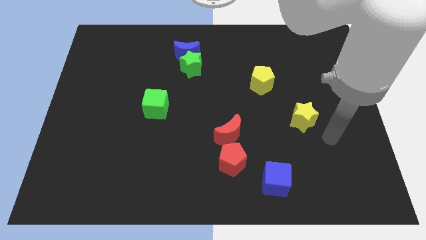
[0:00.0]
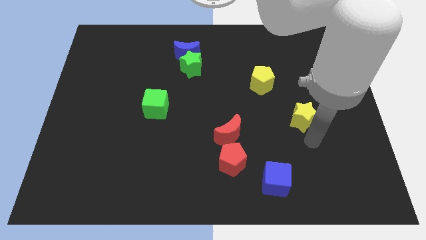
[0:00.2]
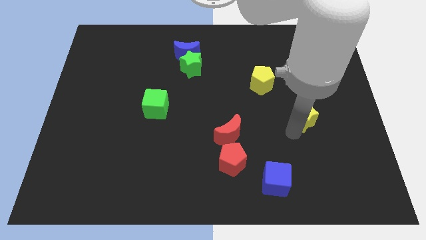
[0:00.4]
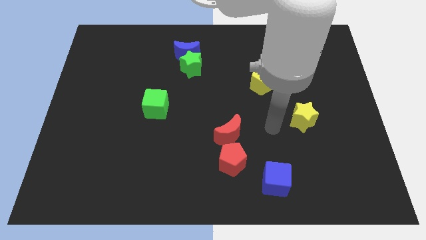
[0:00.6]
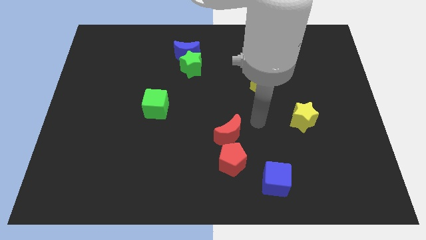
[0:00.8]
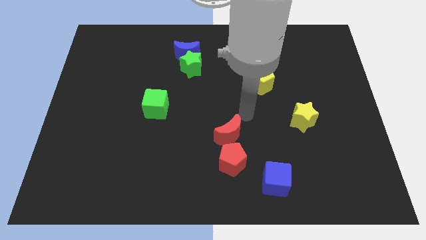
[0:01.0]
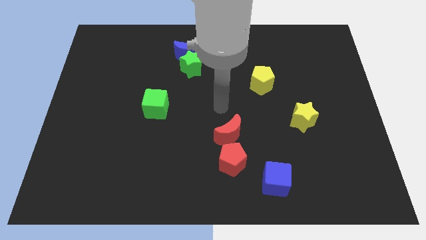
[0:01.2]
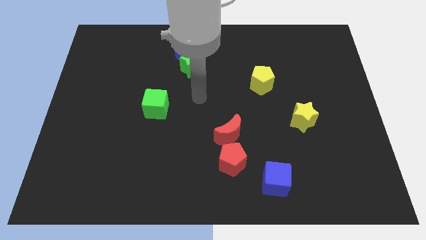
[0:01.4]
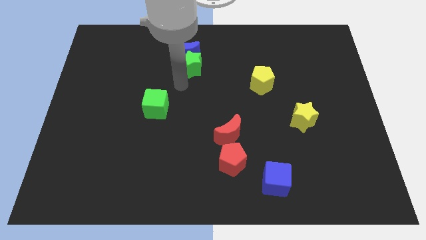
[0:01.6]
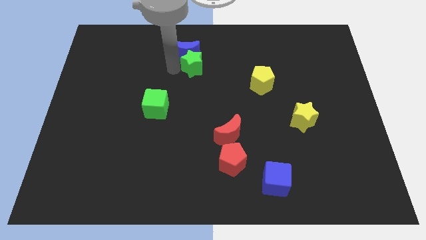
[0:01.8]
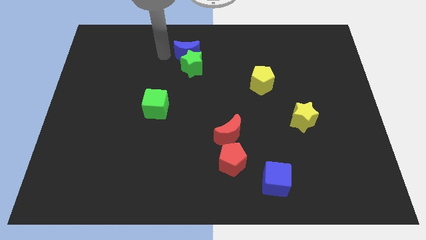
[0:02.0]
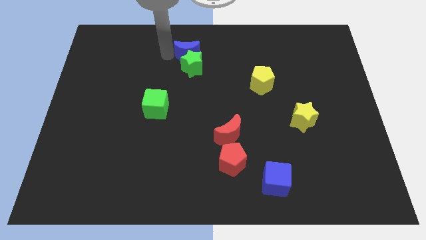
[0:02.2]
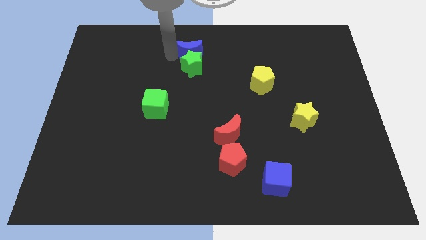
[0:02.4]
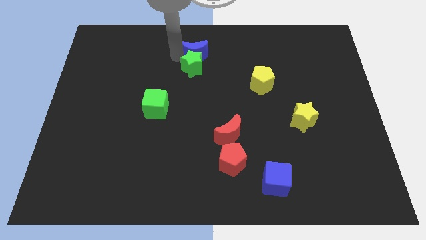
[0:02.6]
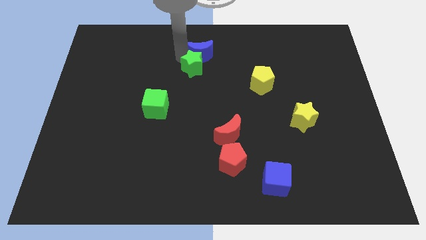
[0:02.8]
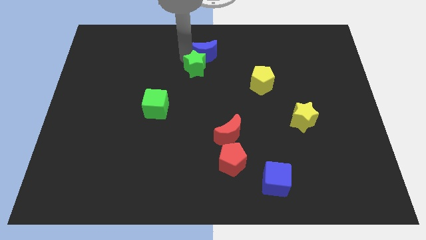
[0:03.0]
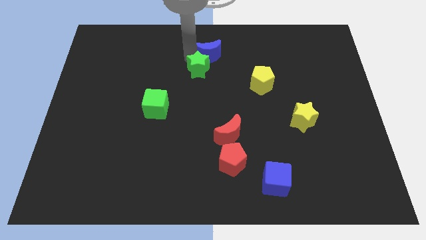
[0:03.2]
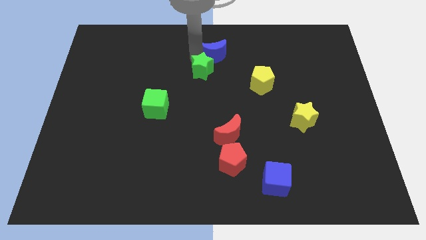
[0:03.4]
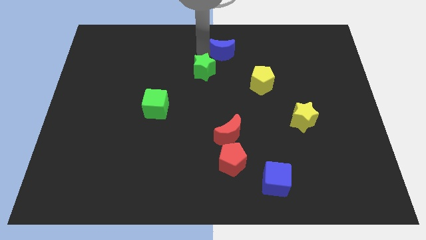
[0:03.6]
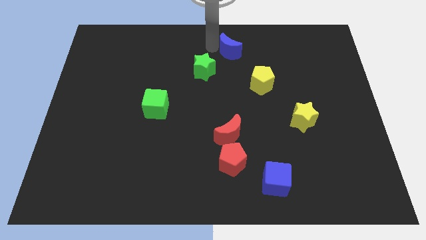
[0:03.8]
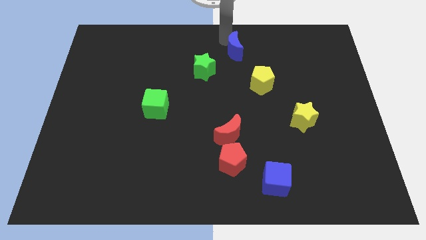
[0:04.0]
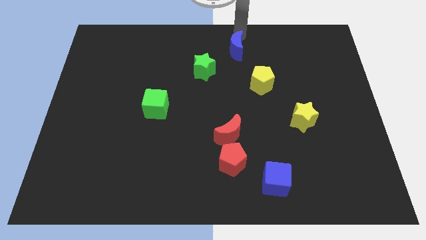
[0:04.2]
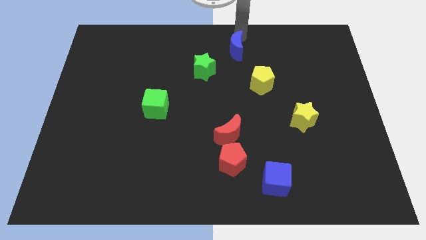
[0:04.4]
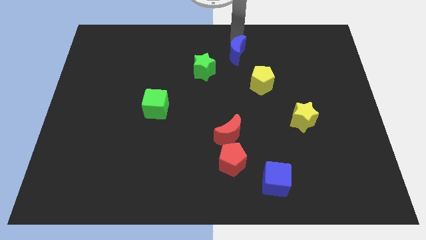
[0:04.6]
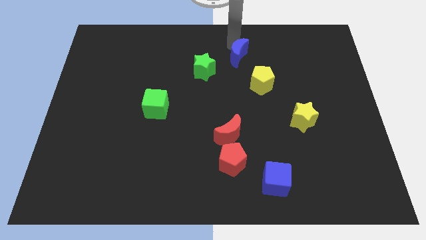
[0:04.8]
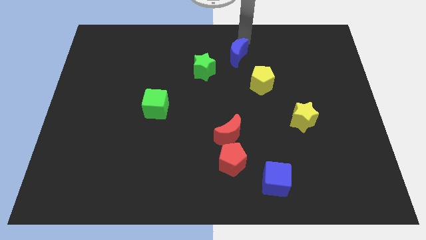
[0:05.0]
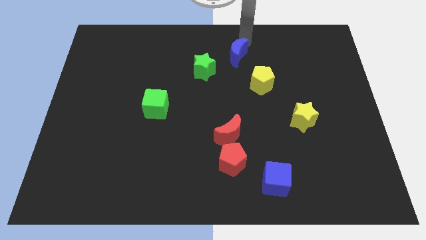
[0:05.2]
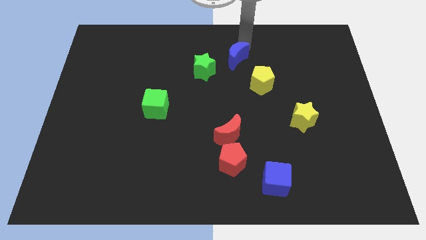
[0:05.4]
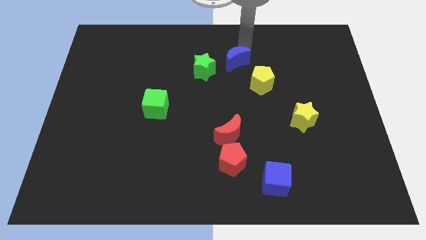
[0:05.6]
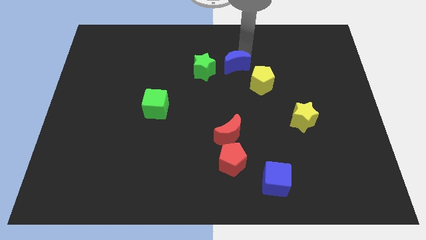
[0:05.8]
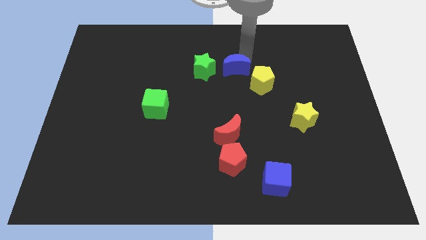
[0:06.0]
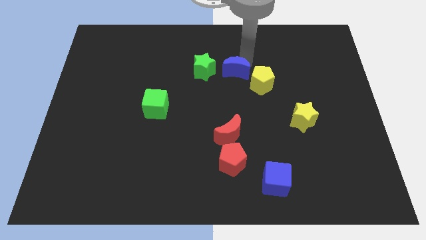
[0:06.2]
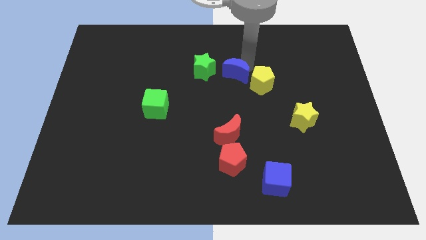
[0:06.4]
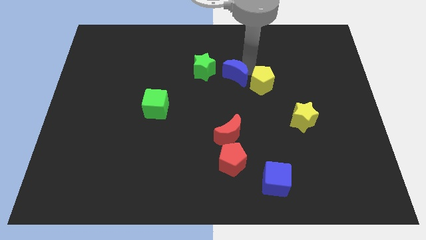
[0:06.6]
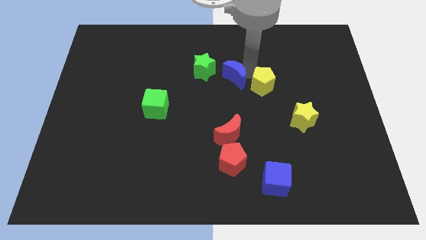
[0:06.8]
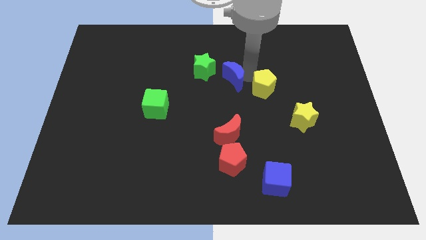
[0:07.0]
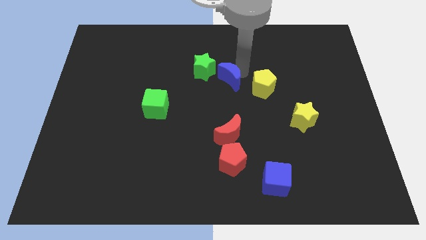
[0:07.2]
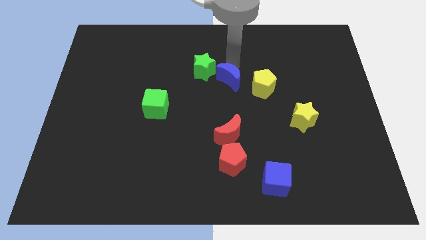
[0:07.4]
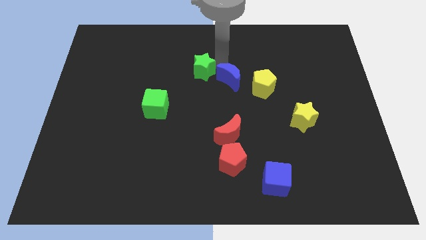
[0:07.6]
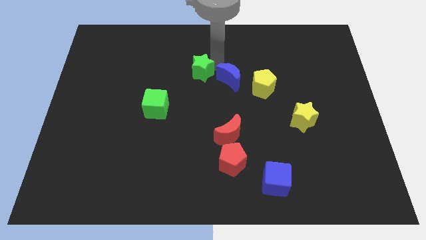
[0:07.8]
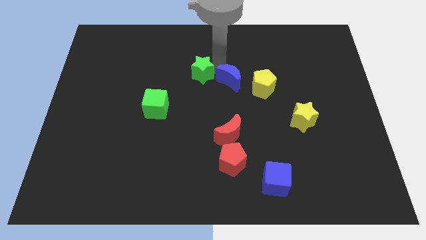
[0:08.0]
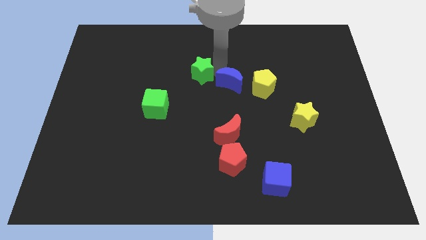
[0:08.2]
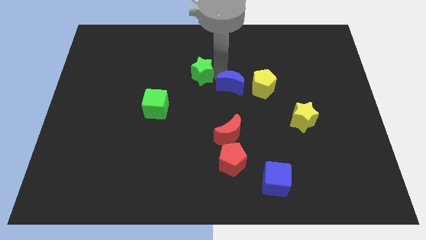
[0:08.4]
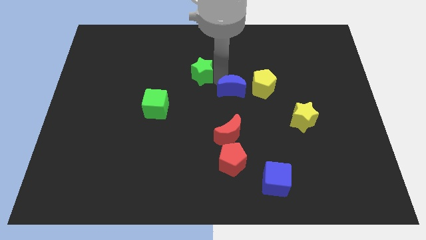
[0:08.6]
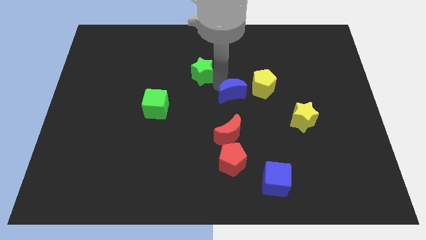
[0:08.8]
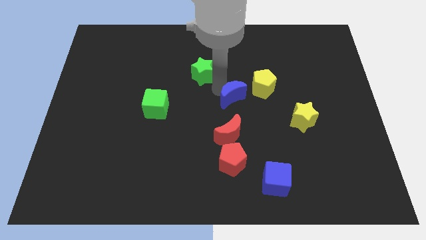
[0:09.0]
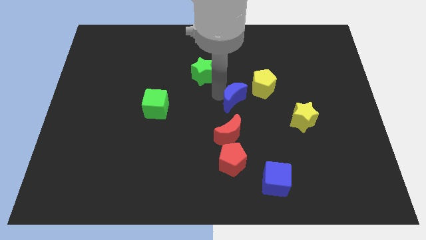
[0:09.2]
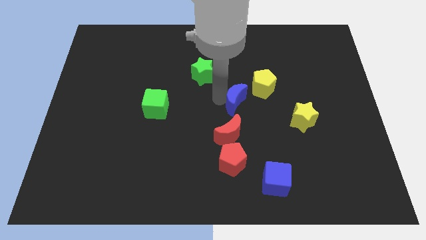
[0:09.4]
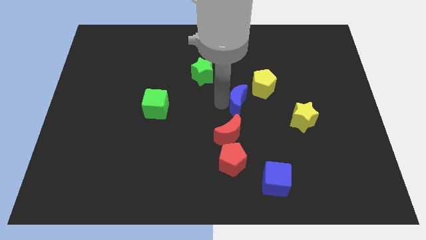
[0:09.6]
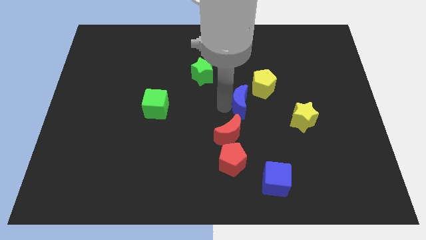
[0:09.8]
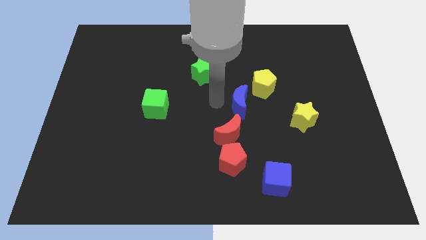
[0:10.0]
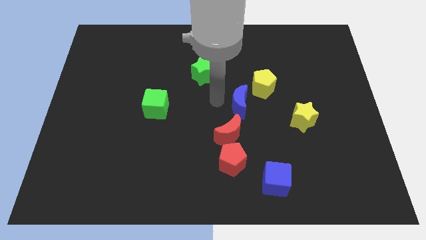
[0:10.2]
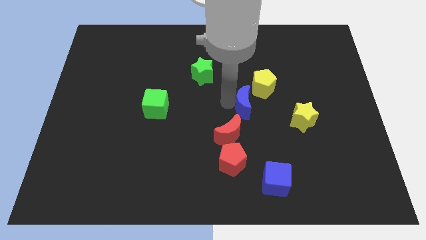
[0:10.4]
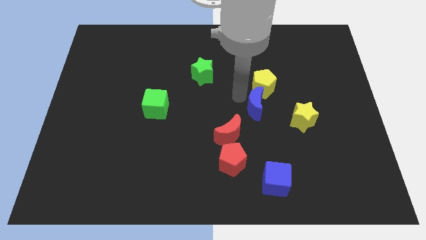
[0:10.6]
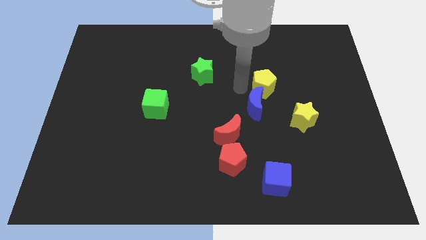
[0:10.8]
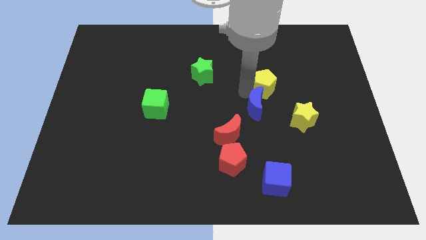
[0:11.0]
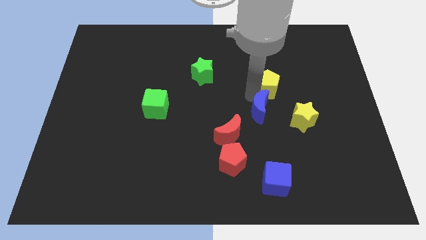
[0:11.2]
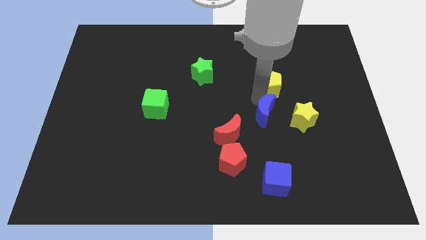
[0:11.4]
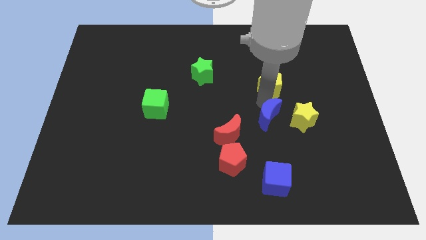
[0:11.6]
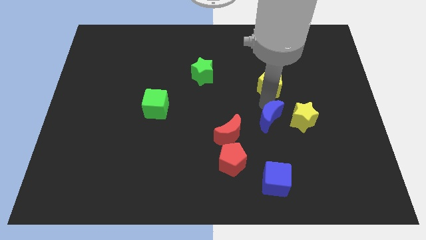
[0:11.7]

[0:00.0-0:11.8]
move the blue moon to the right side of the red moon

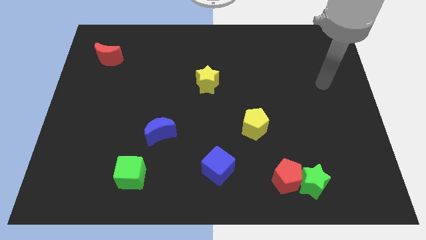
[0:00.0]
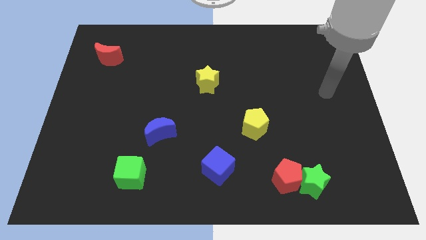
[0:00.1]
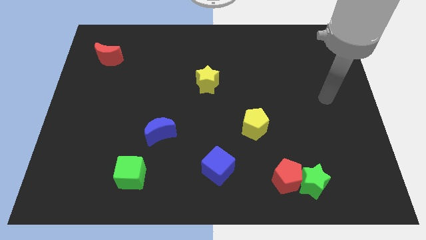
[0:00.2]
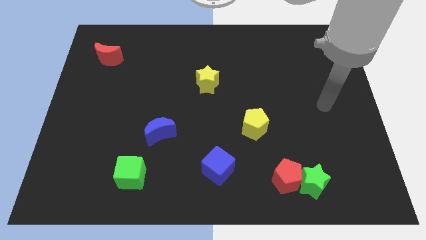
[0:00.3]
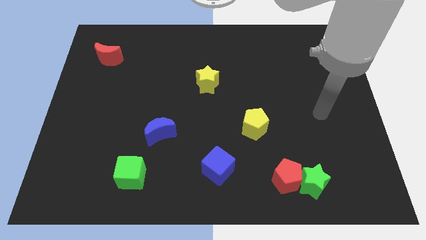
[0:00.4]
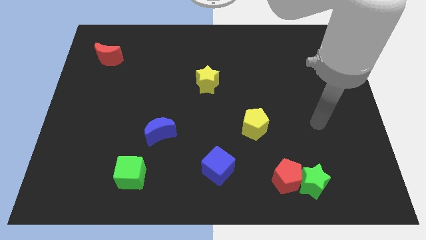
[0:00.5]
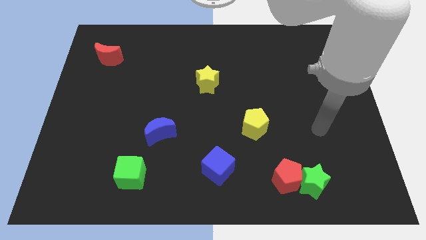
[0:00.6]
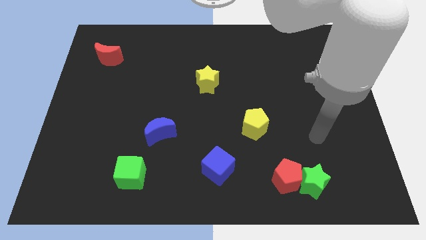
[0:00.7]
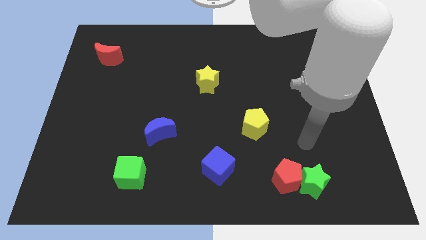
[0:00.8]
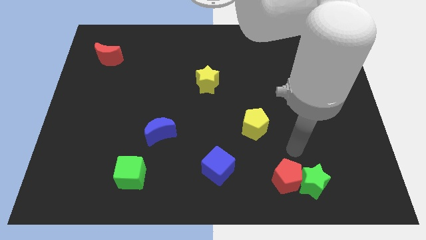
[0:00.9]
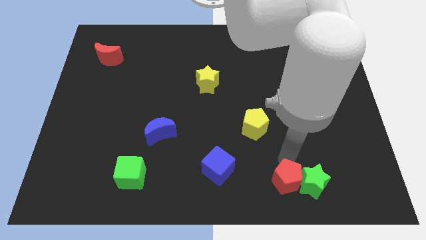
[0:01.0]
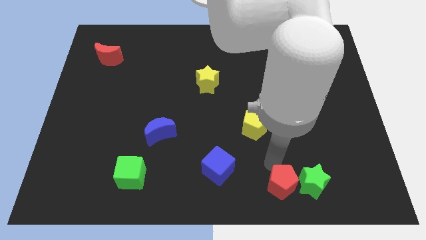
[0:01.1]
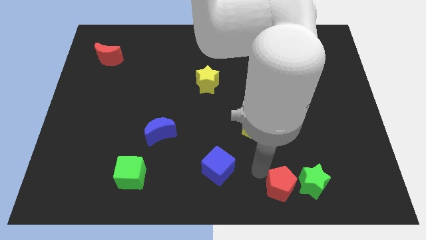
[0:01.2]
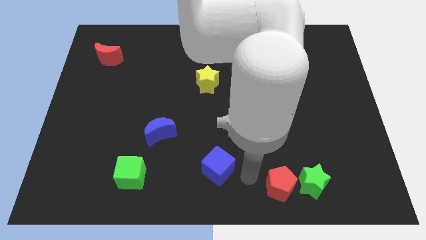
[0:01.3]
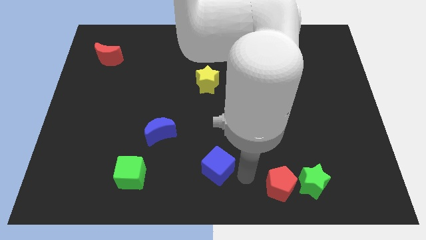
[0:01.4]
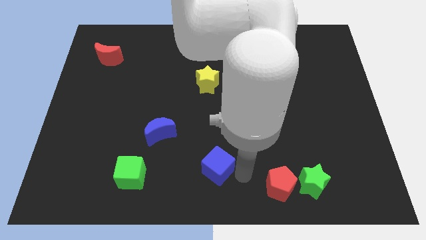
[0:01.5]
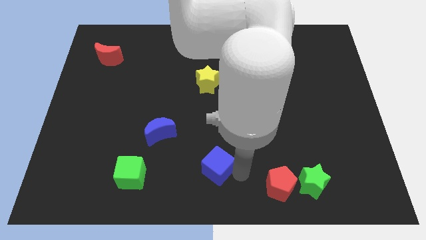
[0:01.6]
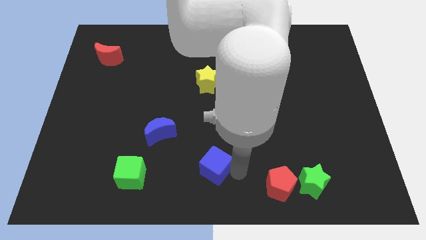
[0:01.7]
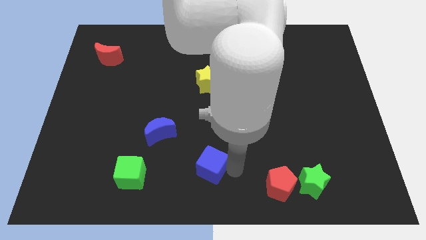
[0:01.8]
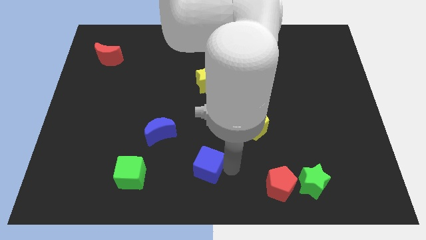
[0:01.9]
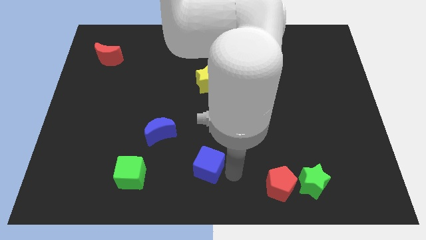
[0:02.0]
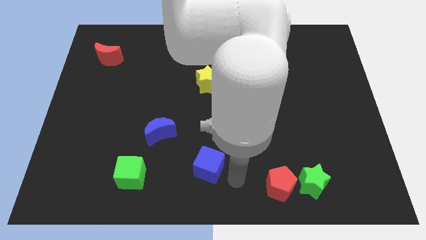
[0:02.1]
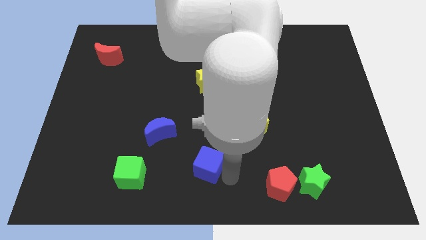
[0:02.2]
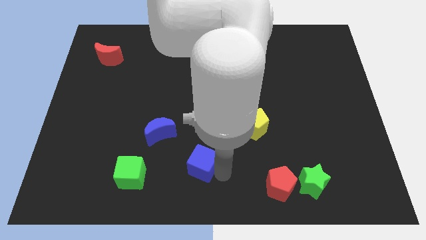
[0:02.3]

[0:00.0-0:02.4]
push the blue cube to the bottom right of the blue moon
